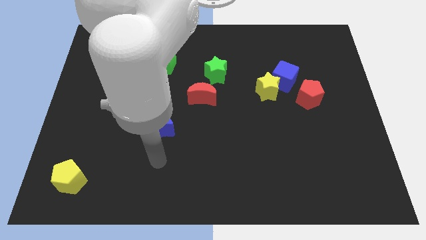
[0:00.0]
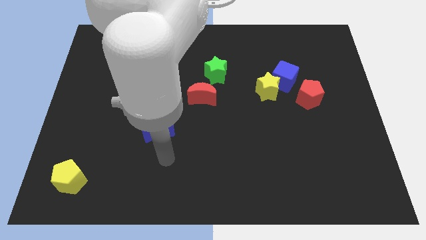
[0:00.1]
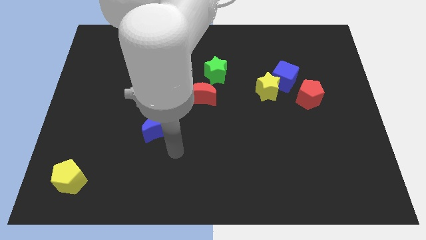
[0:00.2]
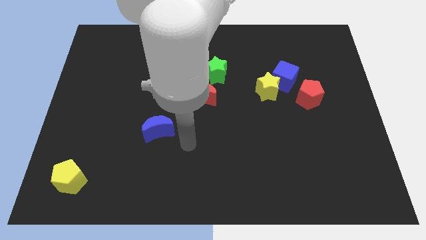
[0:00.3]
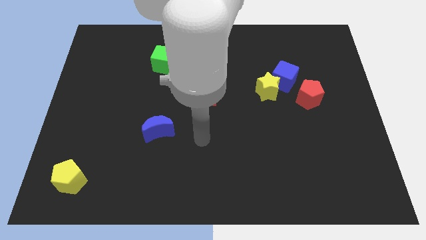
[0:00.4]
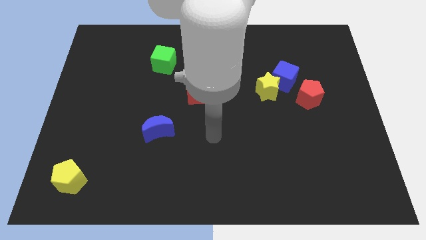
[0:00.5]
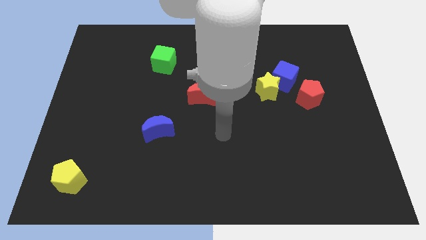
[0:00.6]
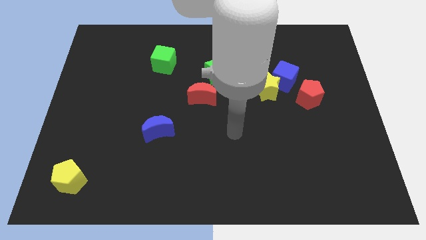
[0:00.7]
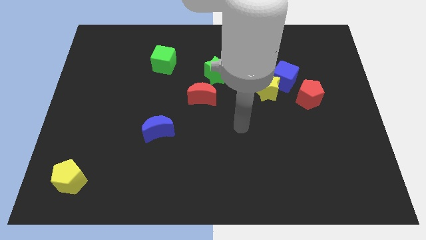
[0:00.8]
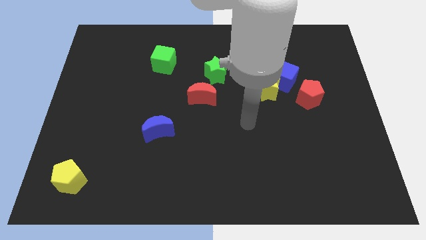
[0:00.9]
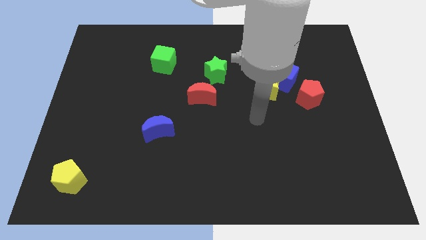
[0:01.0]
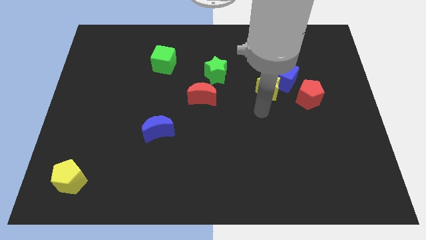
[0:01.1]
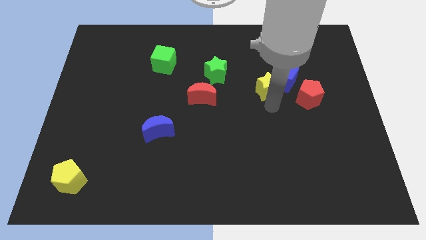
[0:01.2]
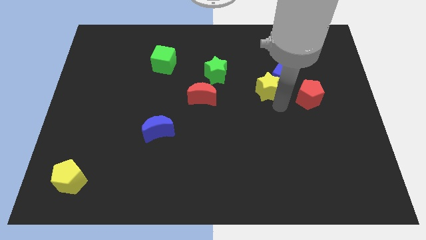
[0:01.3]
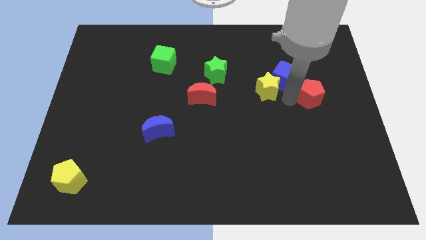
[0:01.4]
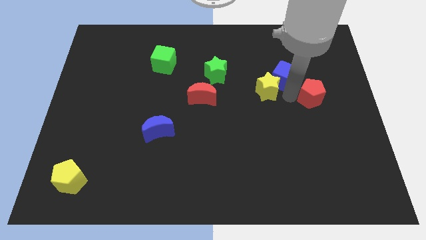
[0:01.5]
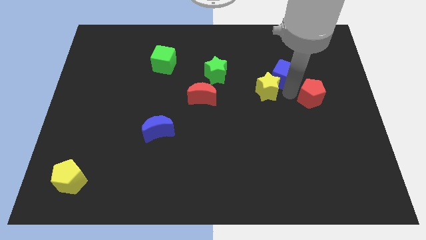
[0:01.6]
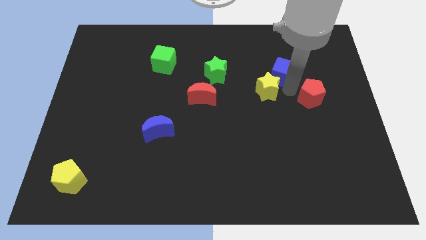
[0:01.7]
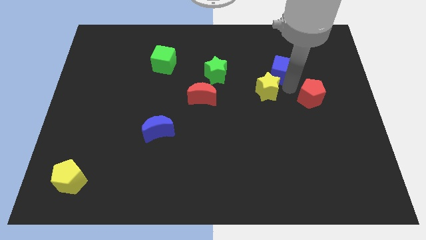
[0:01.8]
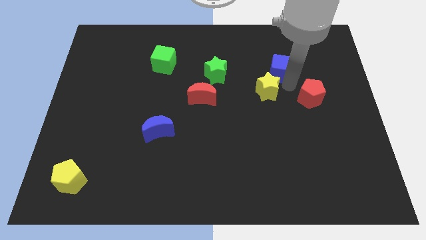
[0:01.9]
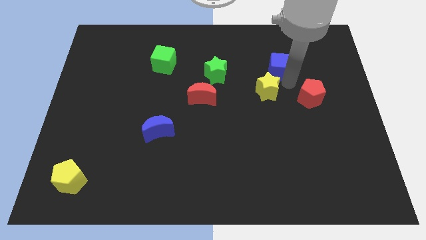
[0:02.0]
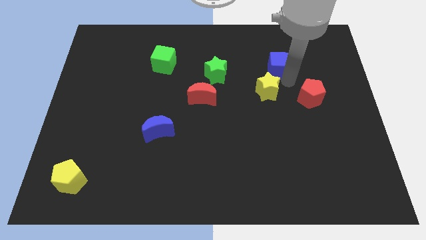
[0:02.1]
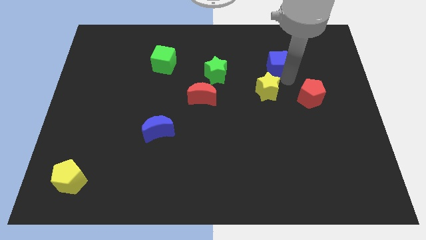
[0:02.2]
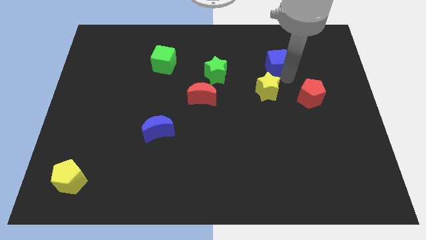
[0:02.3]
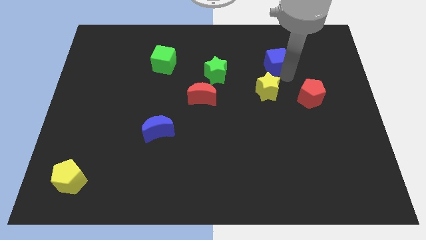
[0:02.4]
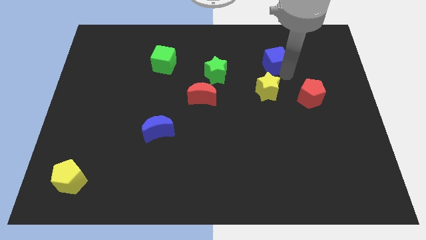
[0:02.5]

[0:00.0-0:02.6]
pull the blue cube apart from the yellow star and red pentagon

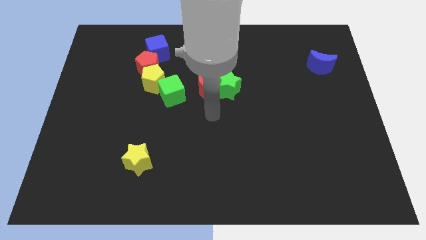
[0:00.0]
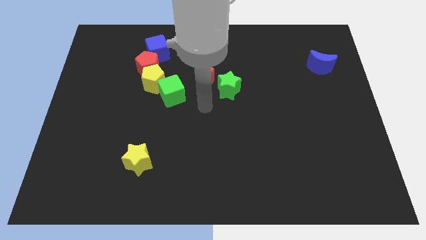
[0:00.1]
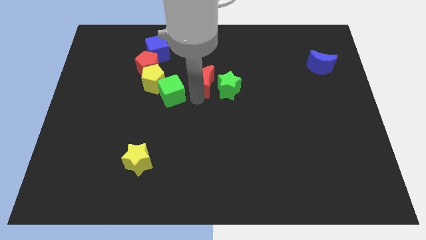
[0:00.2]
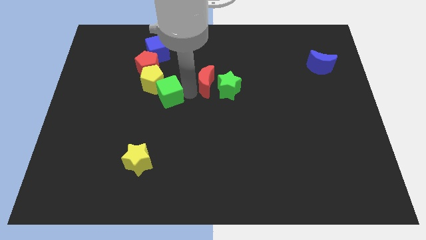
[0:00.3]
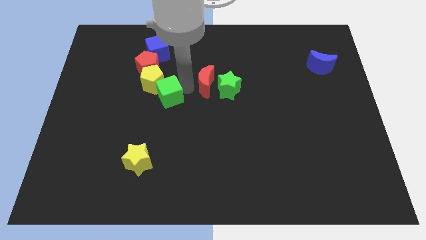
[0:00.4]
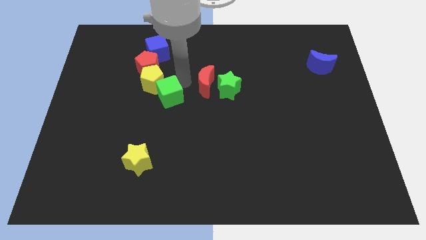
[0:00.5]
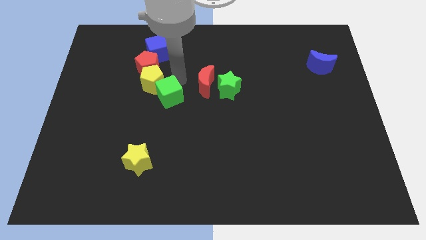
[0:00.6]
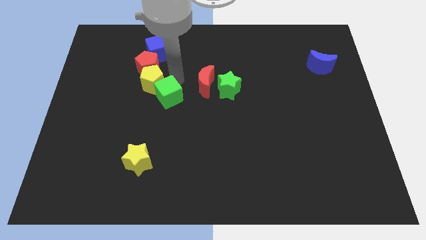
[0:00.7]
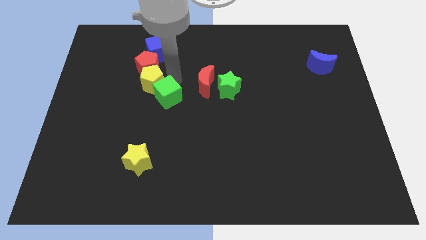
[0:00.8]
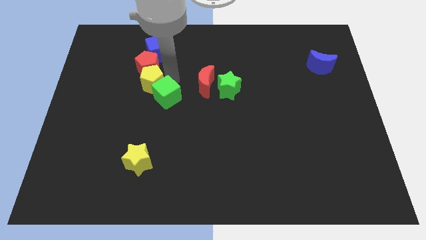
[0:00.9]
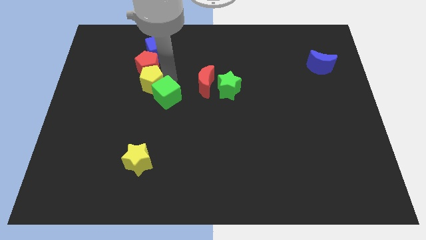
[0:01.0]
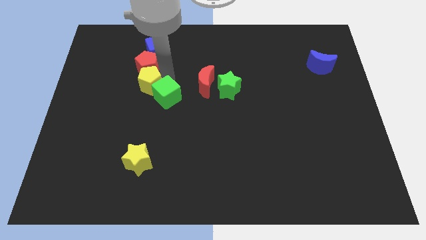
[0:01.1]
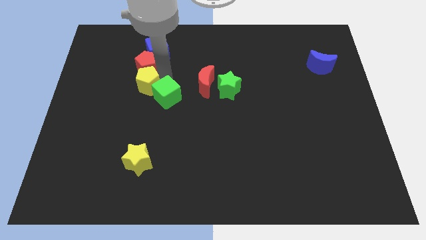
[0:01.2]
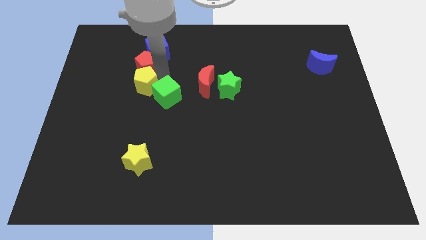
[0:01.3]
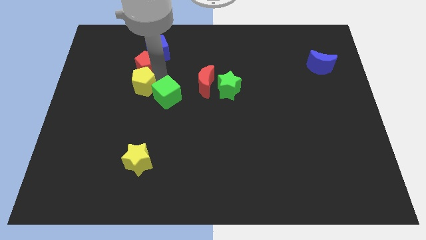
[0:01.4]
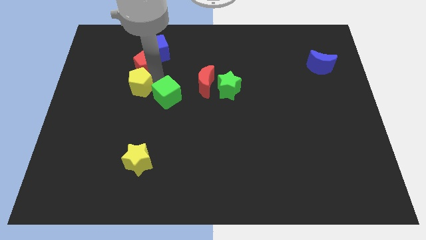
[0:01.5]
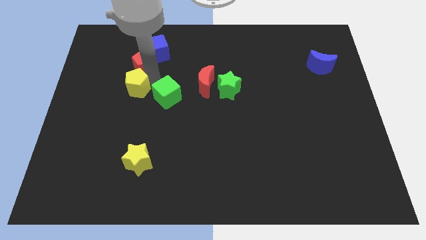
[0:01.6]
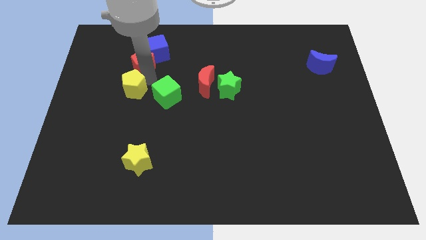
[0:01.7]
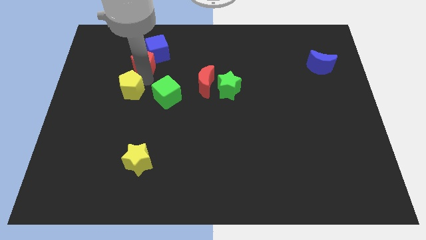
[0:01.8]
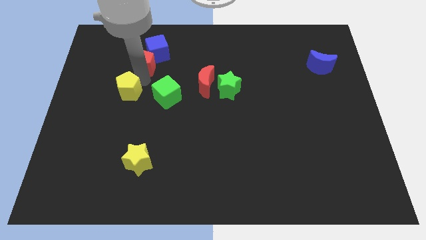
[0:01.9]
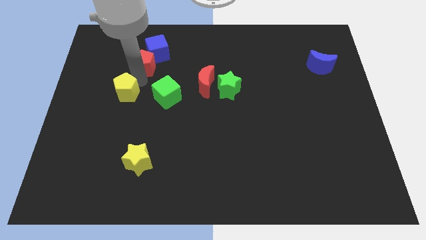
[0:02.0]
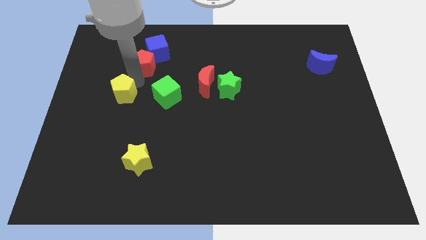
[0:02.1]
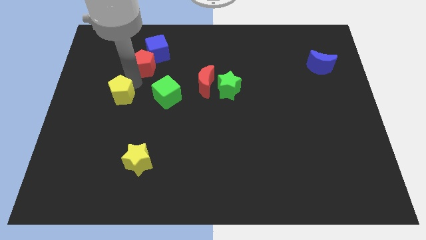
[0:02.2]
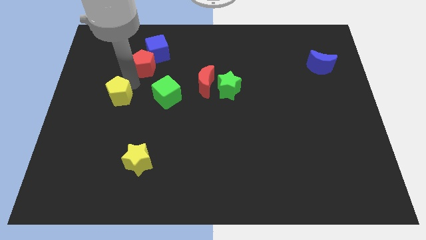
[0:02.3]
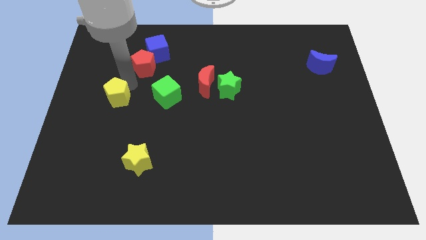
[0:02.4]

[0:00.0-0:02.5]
separate the yellow pentagon from the red pentagon and green cube

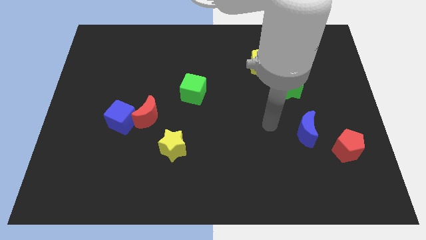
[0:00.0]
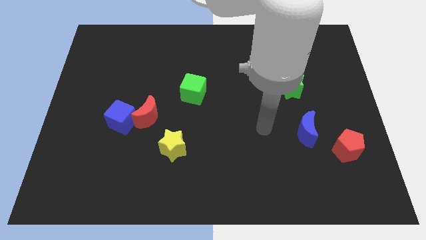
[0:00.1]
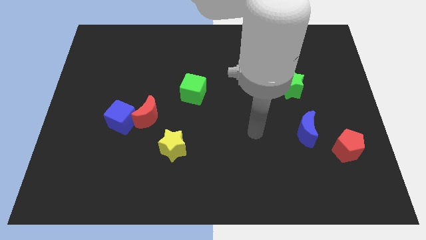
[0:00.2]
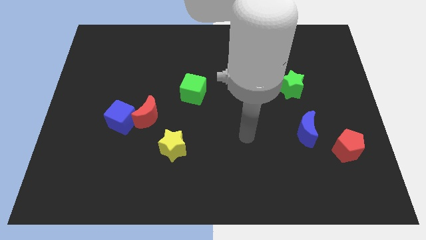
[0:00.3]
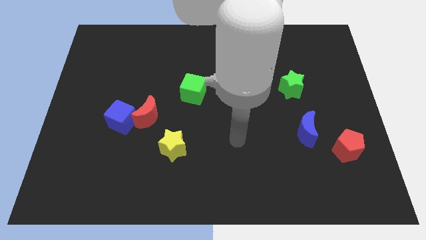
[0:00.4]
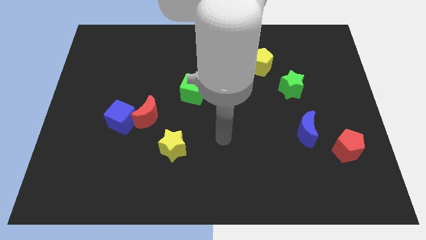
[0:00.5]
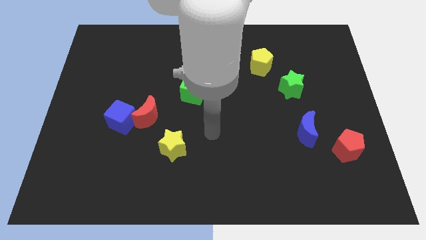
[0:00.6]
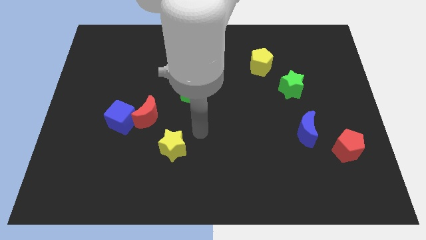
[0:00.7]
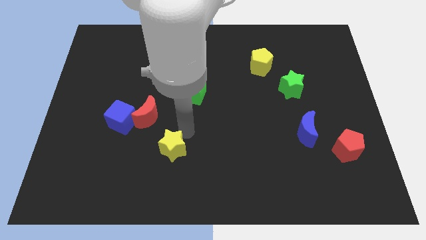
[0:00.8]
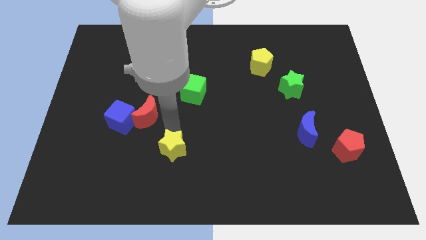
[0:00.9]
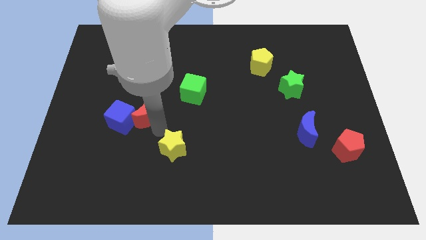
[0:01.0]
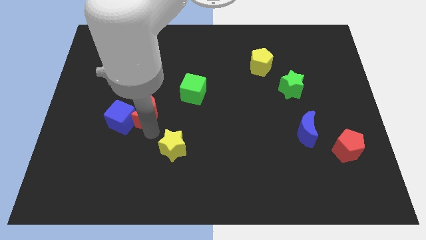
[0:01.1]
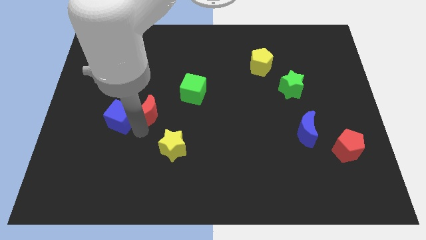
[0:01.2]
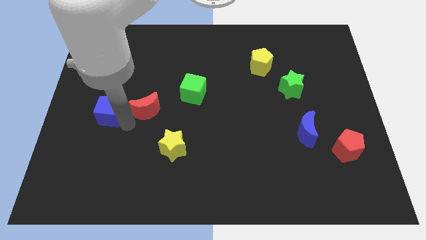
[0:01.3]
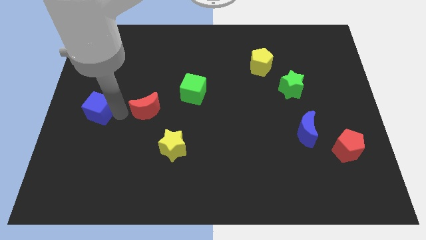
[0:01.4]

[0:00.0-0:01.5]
move the red moon away from the blue cube

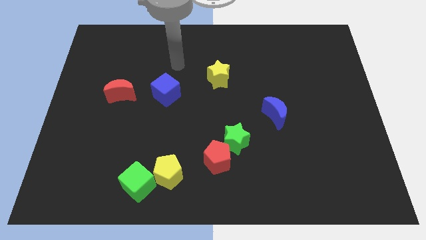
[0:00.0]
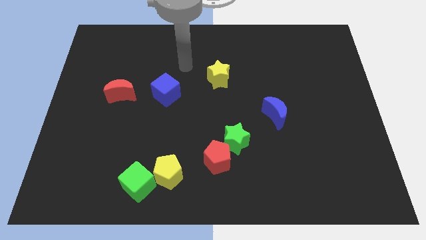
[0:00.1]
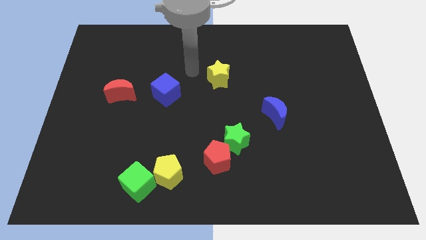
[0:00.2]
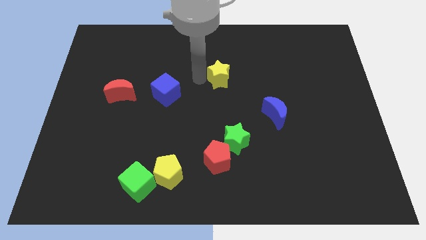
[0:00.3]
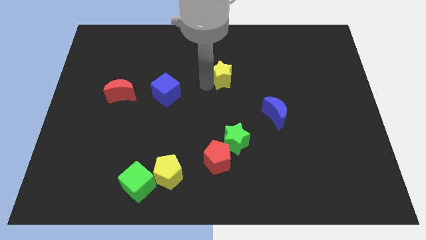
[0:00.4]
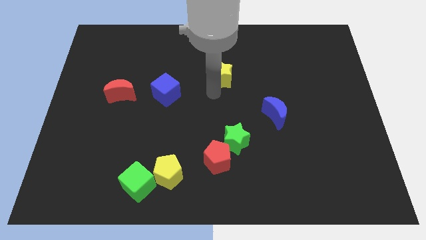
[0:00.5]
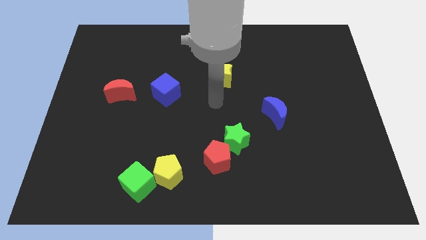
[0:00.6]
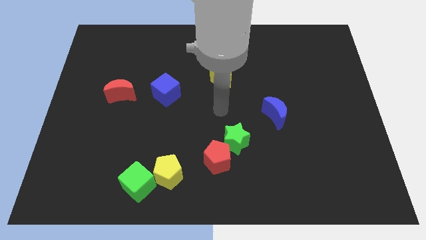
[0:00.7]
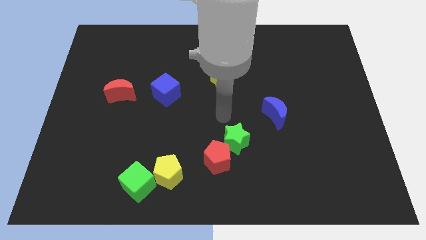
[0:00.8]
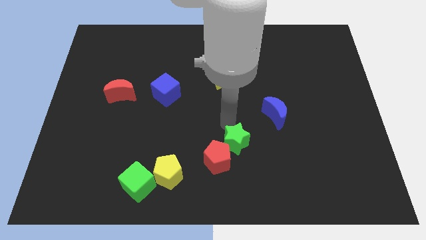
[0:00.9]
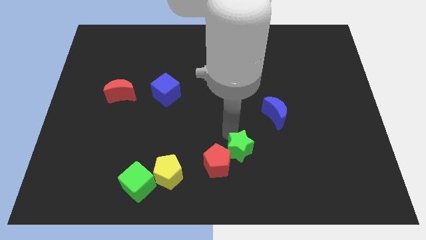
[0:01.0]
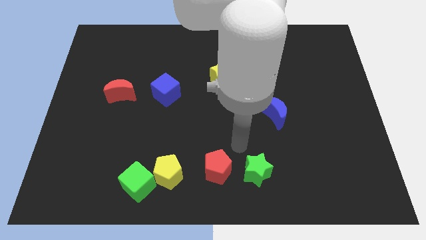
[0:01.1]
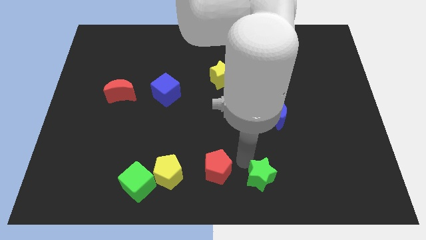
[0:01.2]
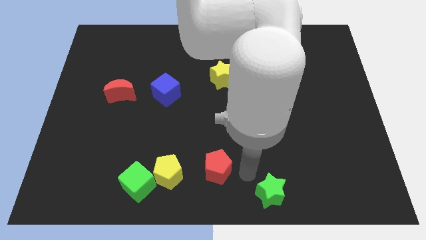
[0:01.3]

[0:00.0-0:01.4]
separate the red pentagon from the green star

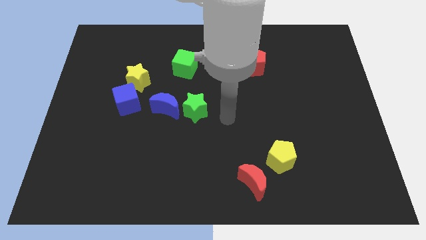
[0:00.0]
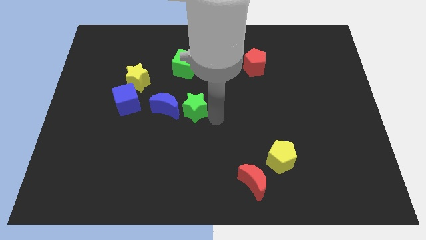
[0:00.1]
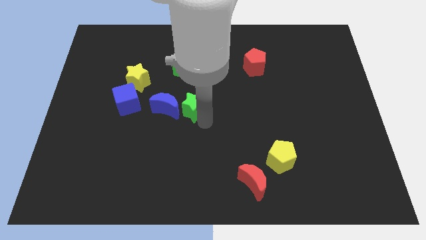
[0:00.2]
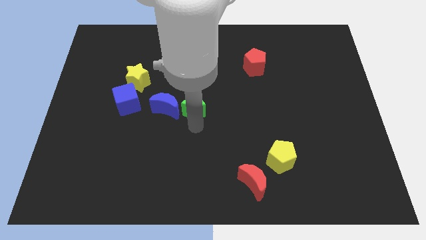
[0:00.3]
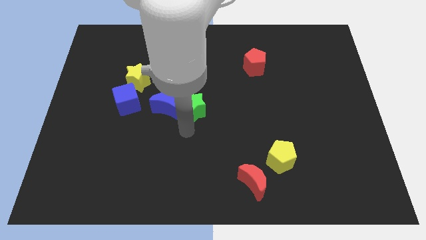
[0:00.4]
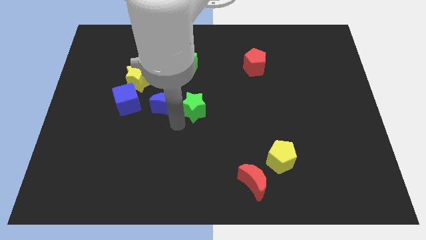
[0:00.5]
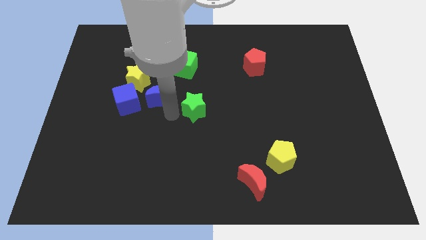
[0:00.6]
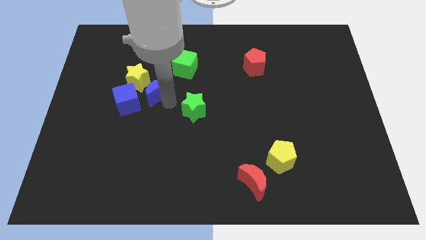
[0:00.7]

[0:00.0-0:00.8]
separate the green star from the blue moon

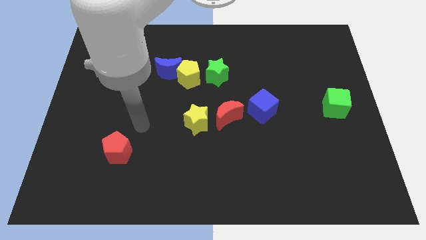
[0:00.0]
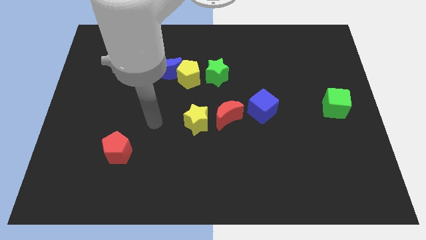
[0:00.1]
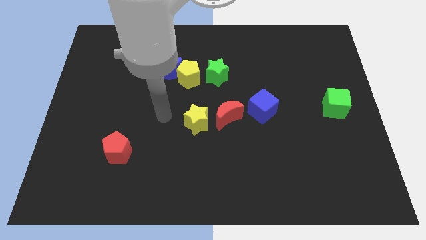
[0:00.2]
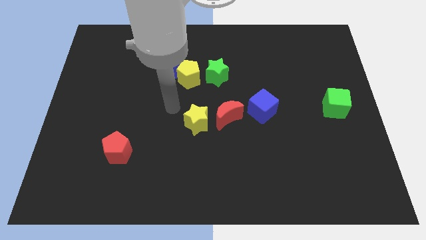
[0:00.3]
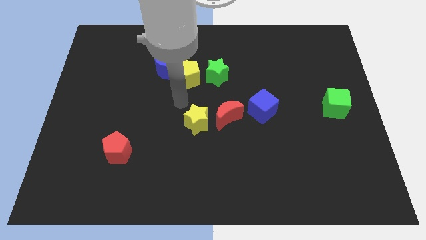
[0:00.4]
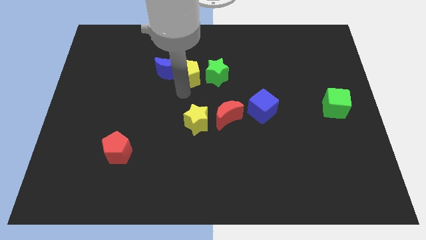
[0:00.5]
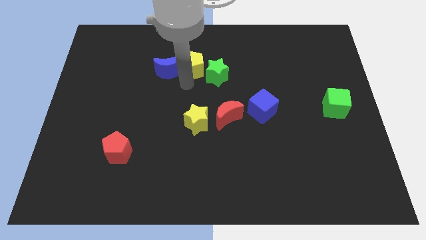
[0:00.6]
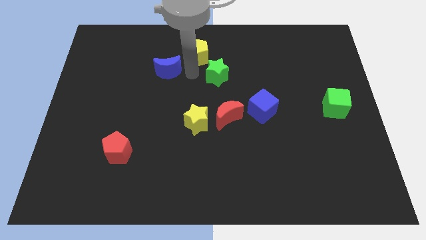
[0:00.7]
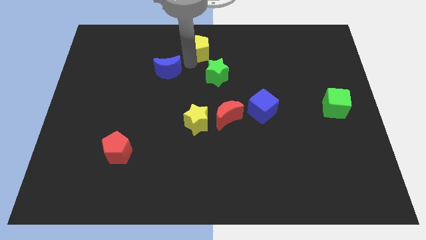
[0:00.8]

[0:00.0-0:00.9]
pull the blue moon apart from the yellow pentagon
